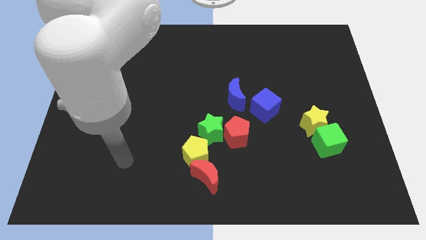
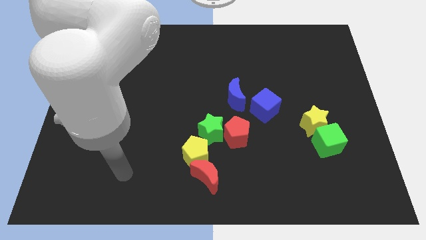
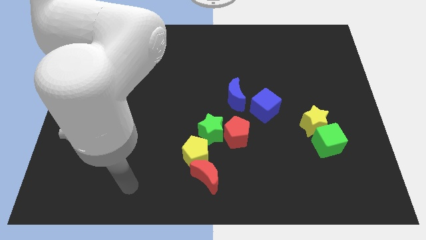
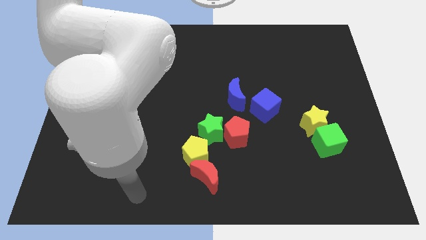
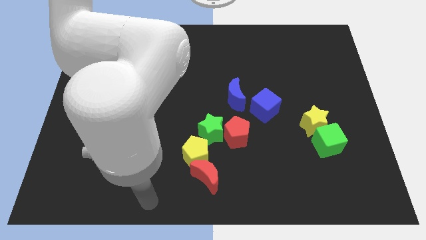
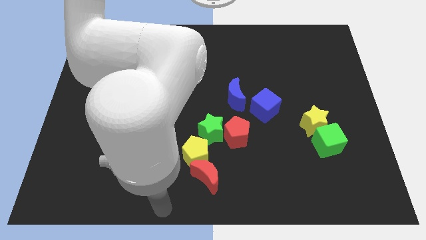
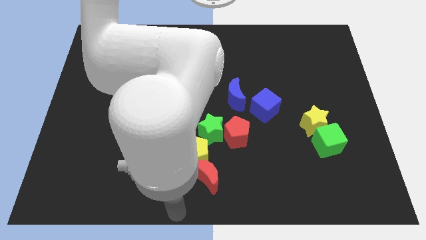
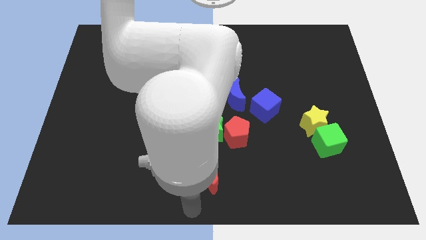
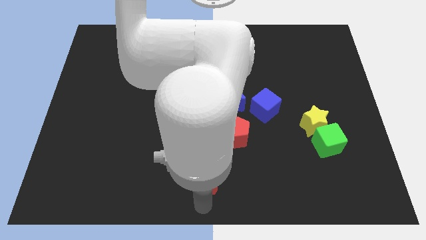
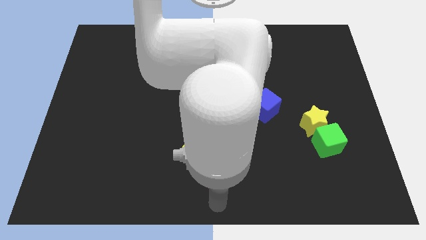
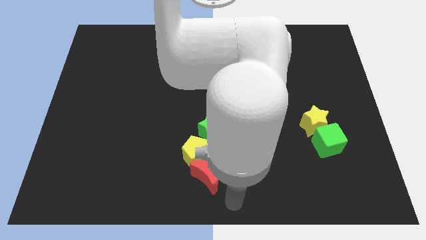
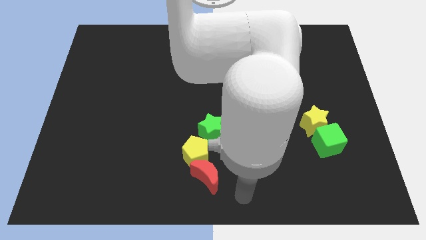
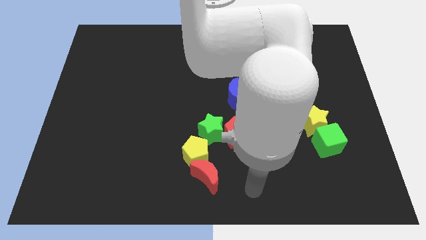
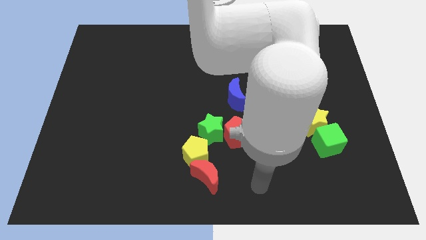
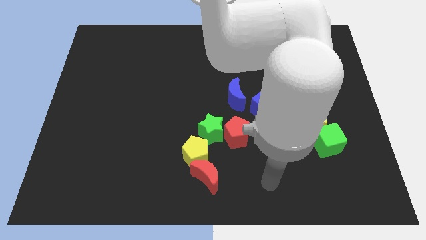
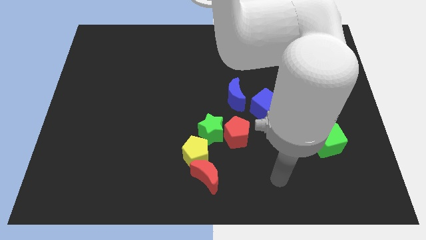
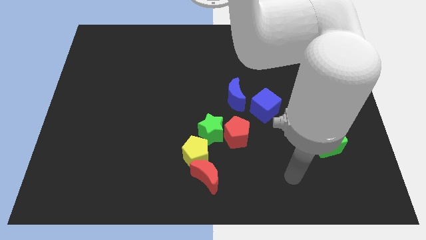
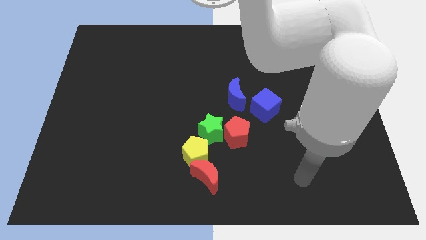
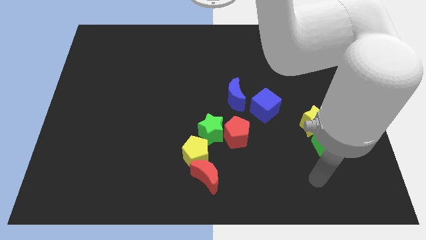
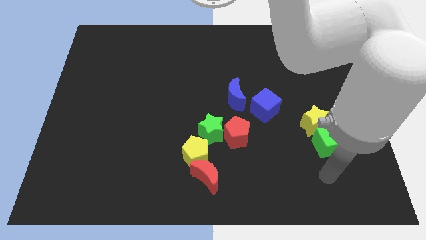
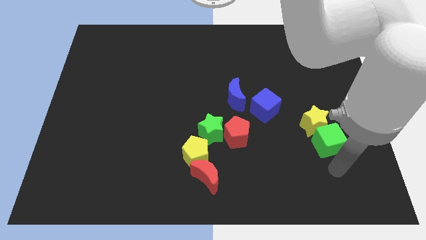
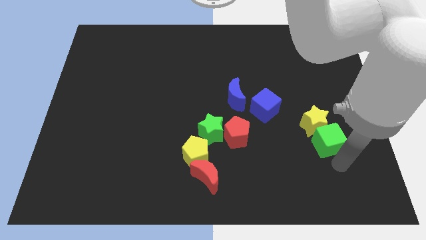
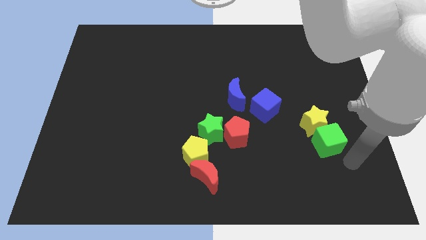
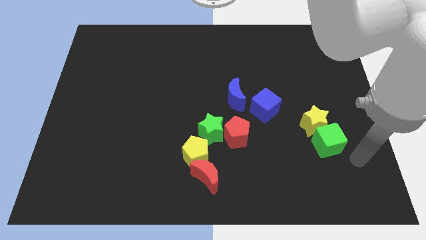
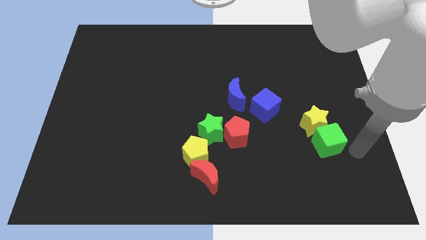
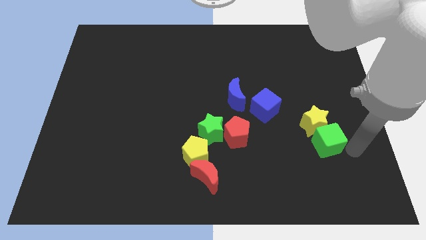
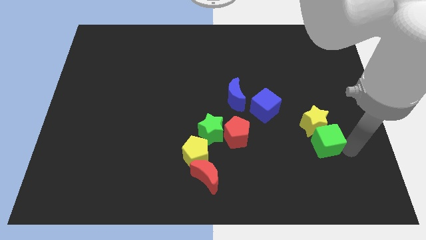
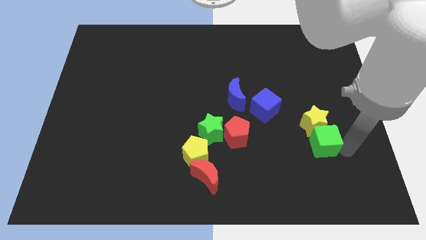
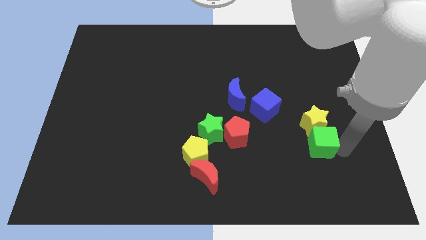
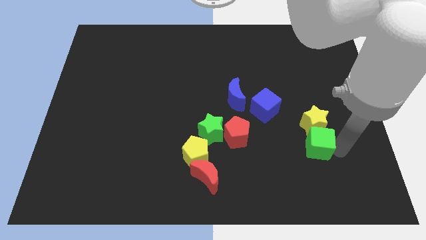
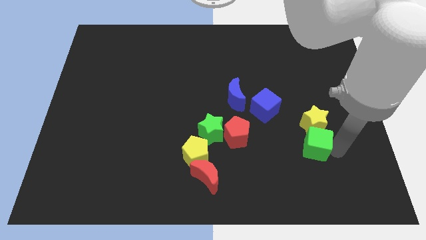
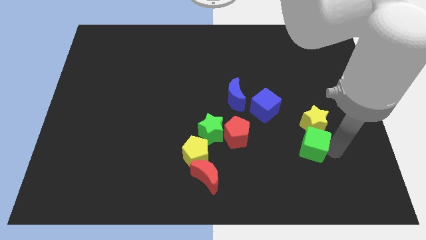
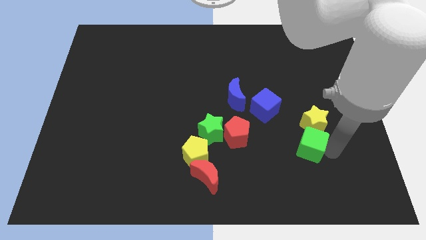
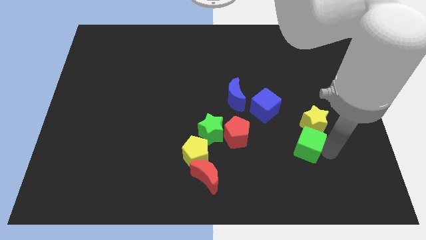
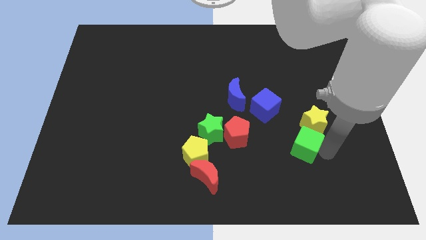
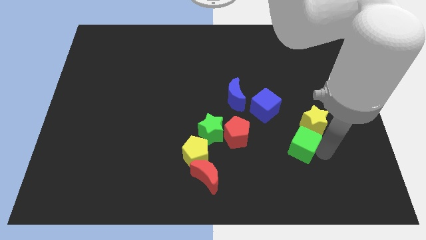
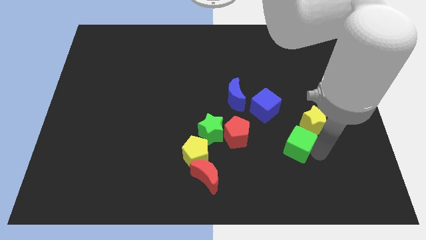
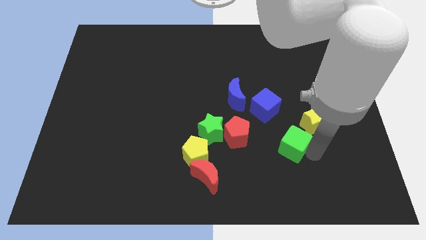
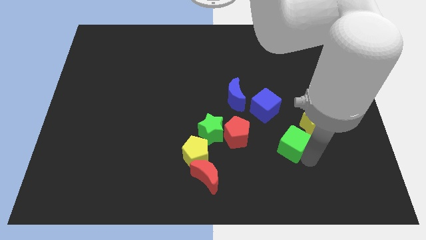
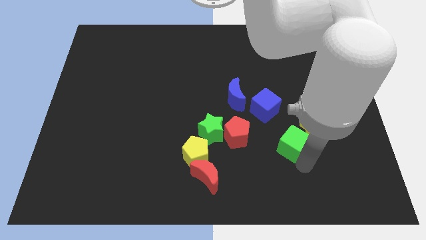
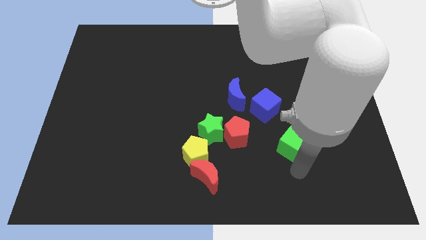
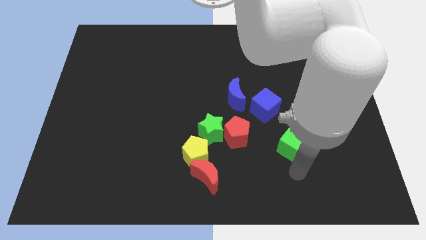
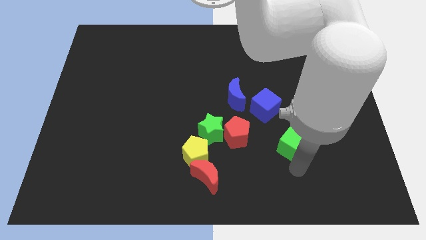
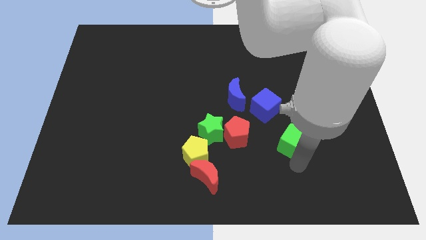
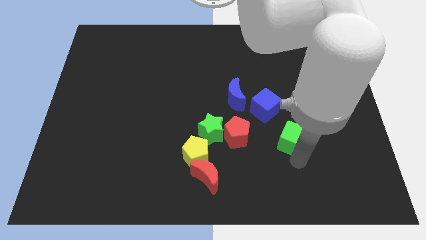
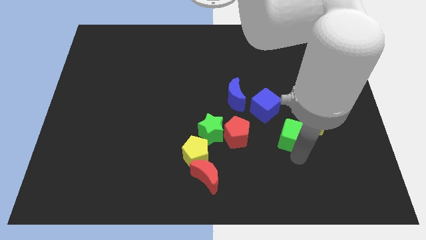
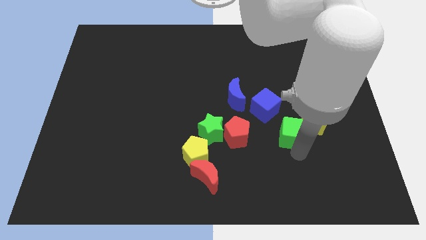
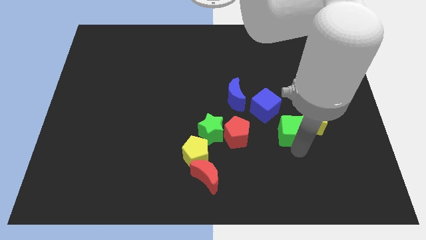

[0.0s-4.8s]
slide the green cube diagonally up and to the left slightly

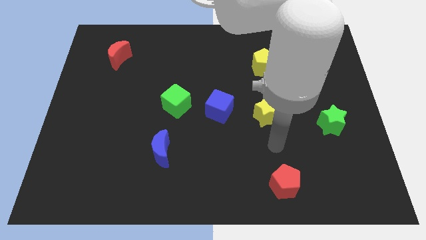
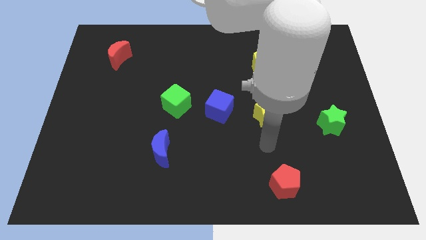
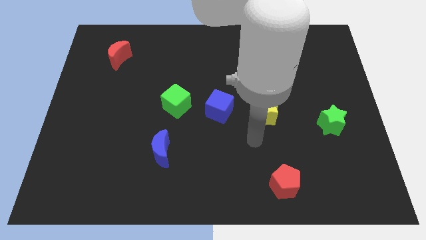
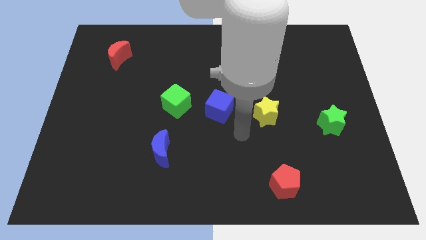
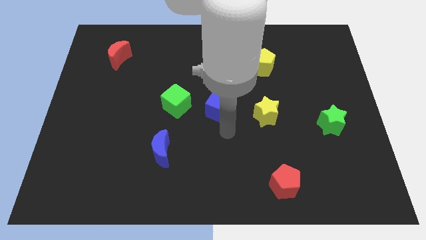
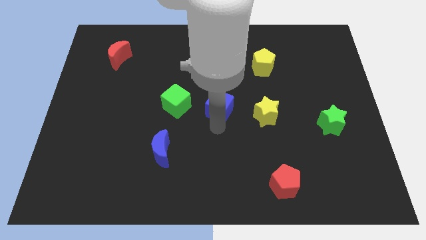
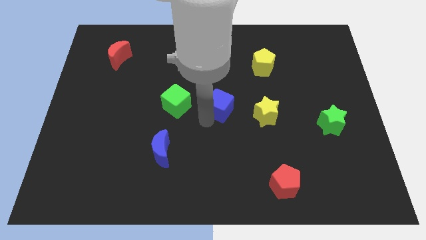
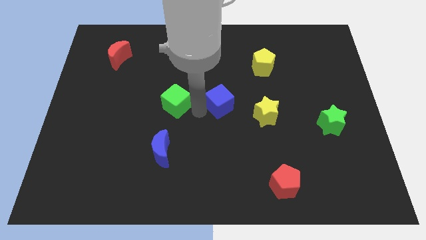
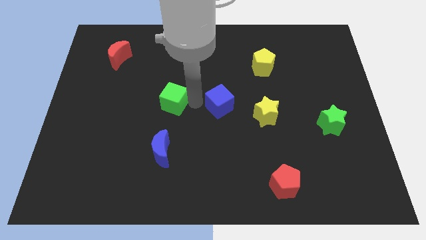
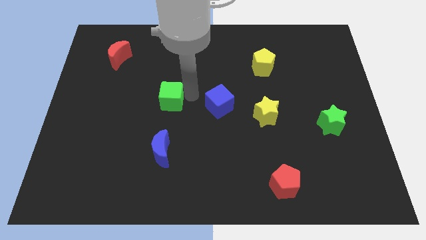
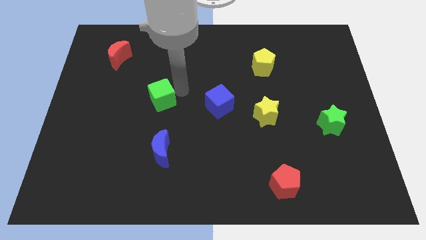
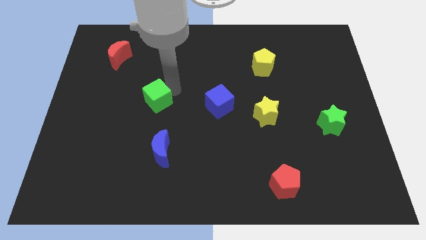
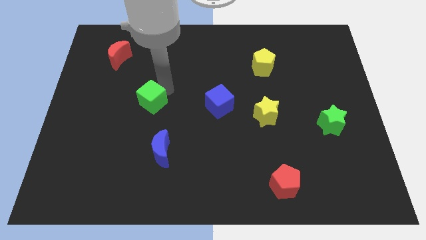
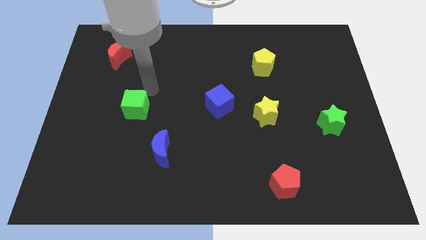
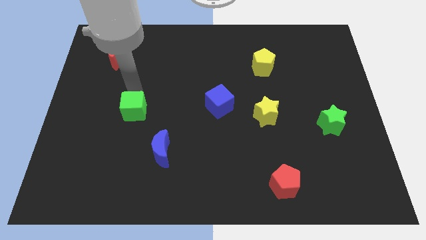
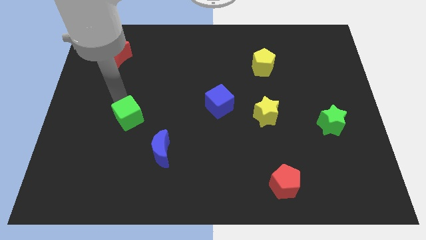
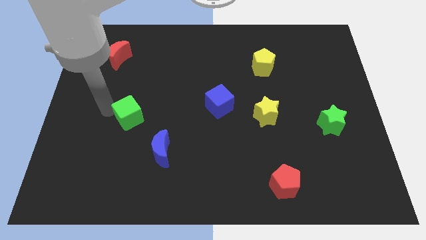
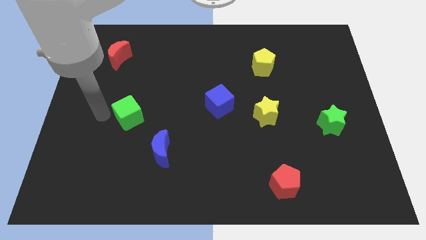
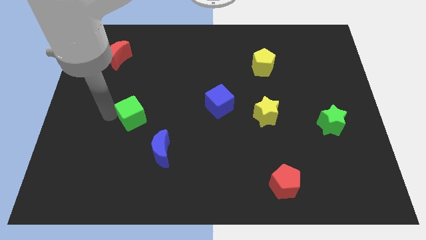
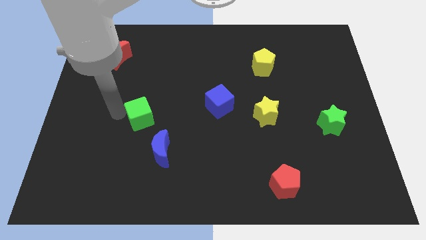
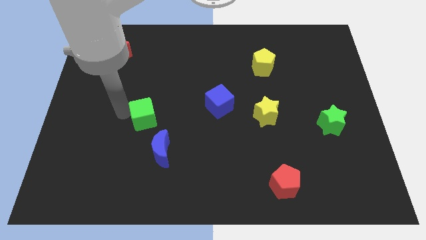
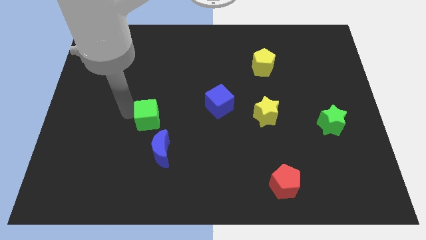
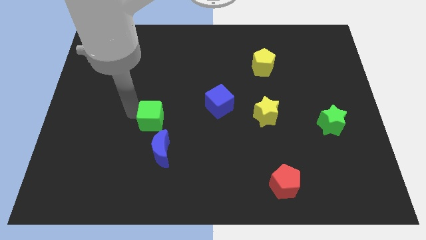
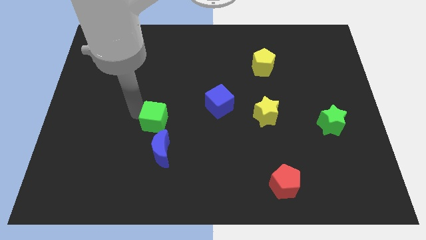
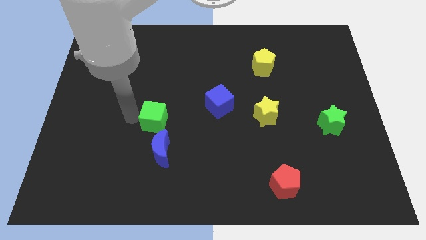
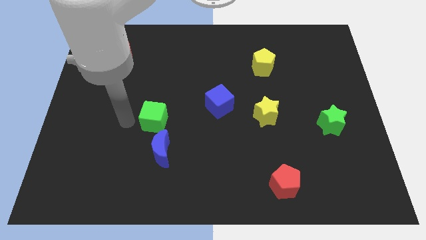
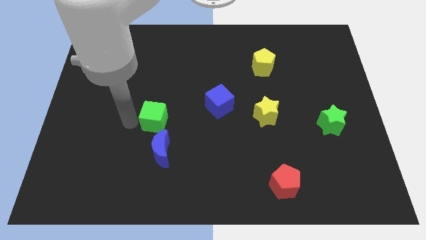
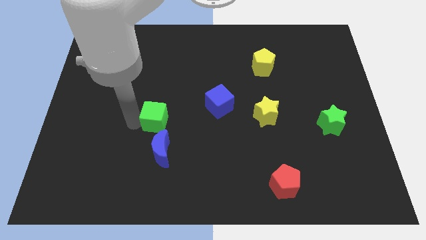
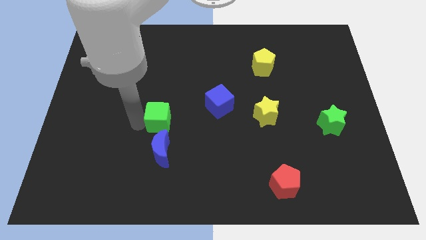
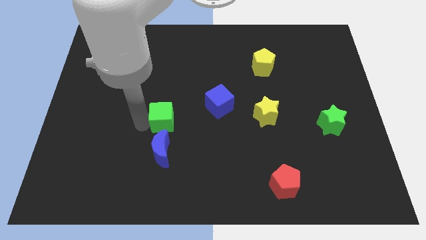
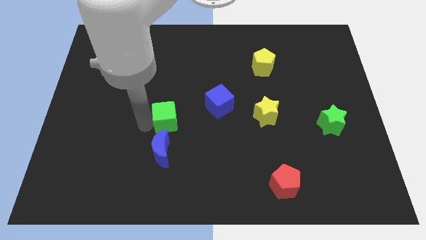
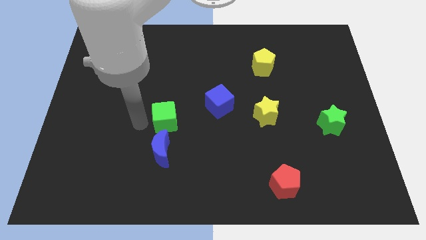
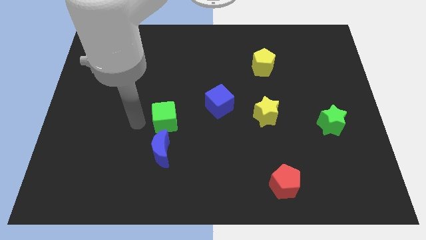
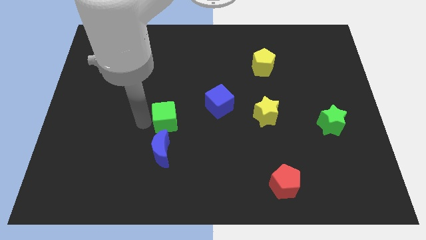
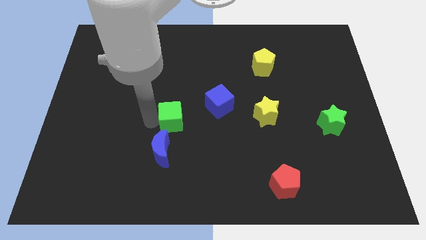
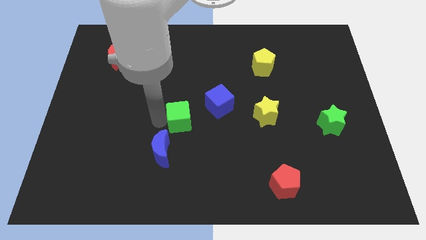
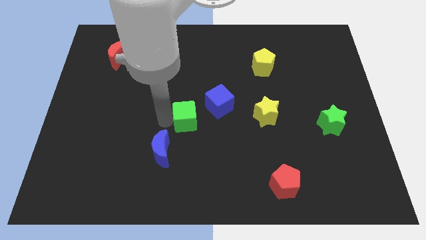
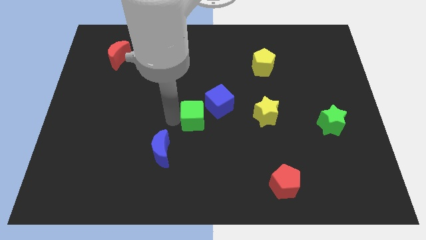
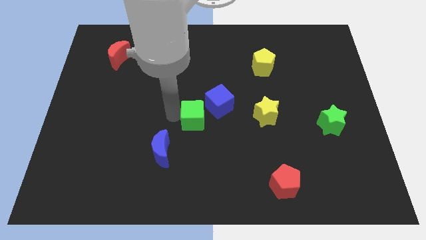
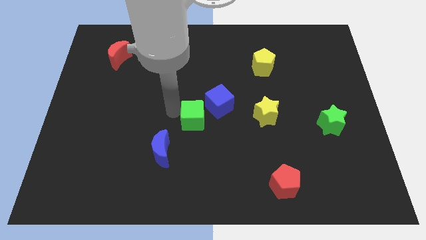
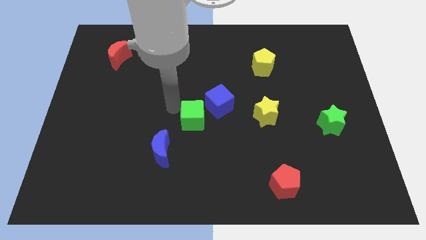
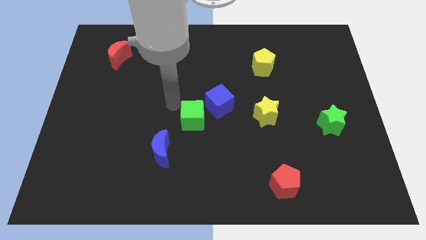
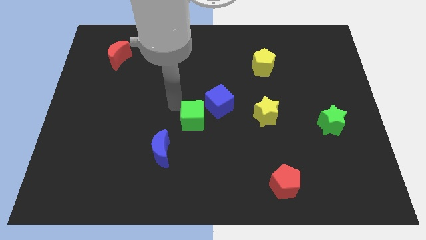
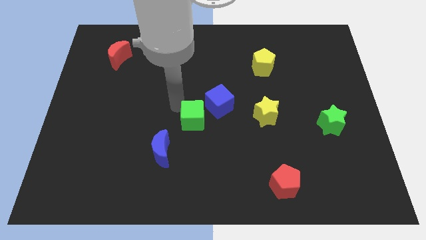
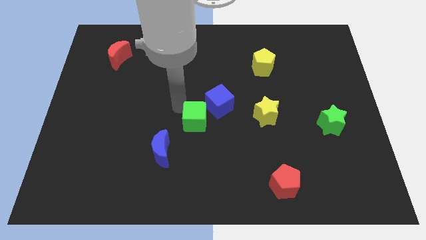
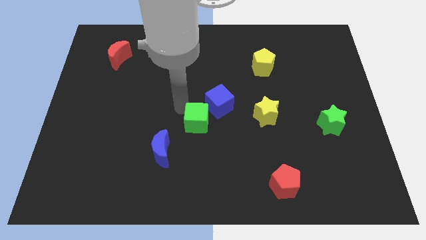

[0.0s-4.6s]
push the green cube a bit down and then to the right
